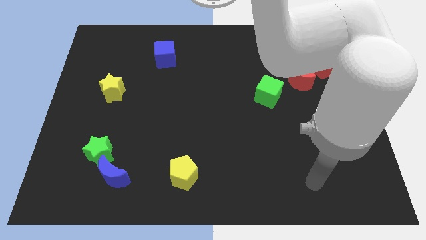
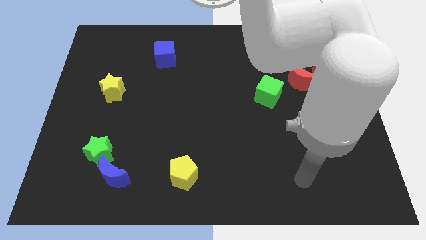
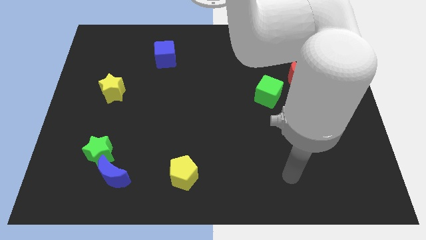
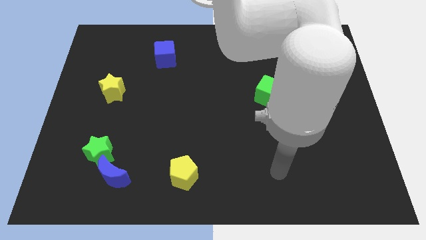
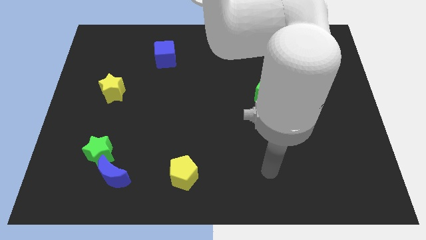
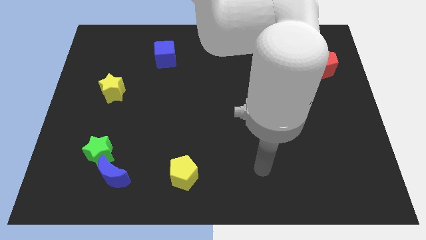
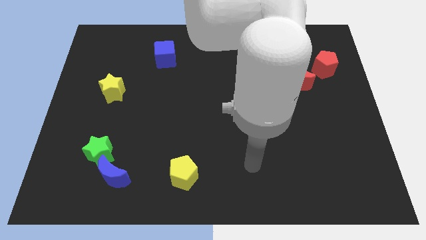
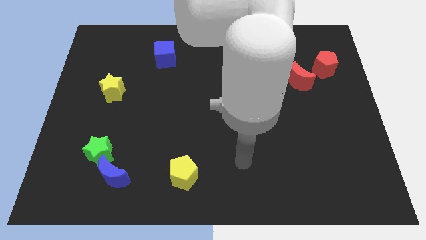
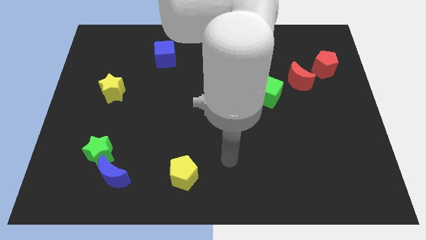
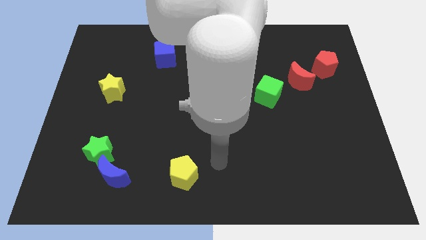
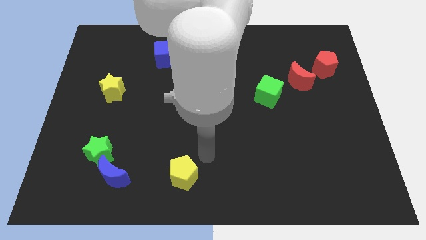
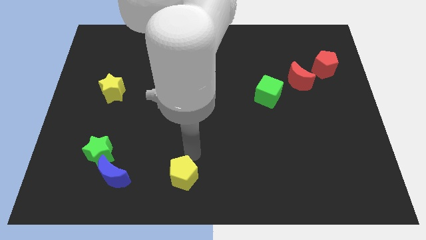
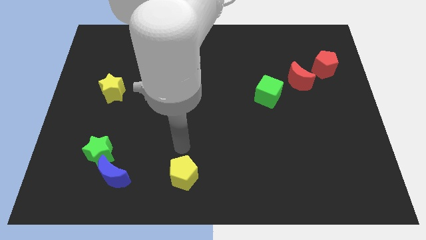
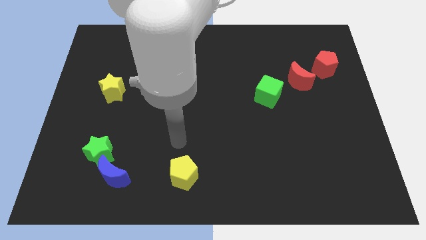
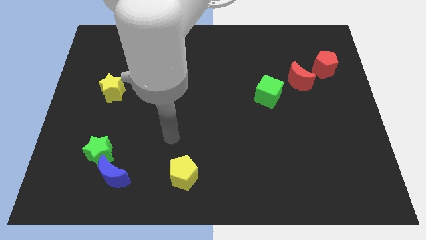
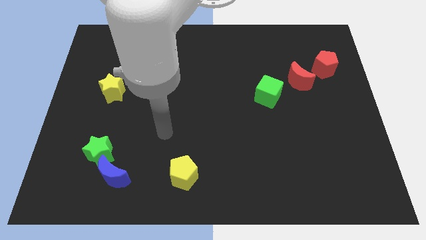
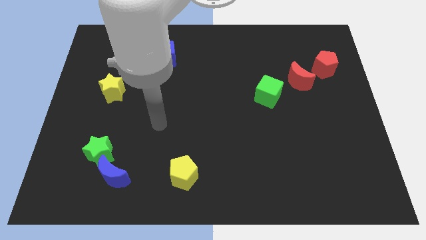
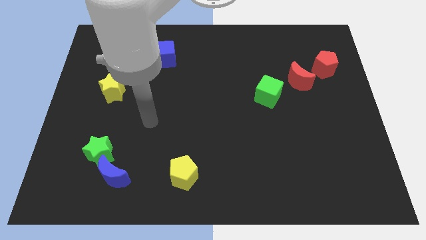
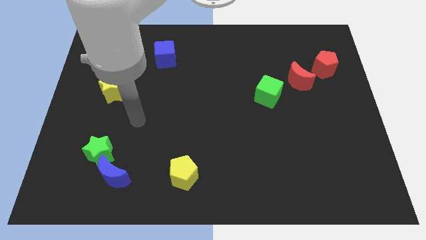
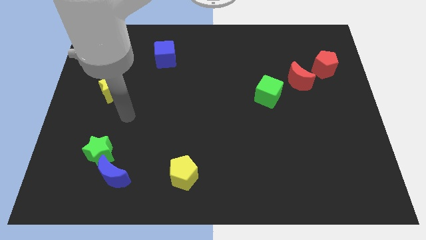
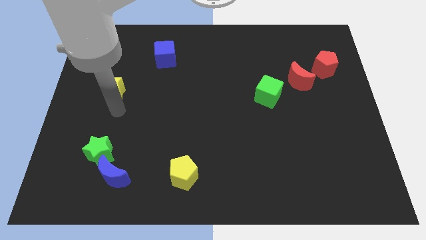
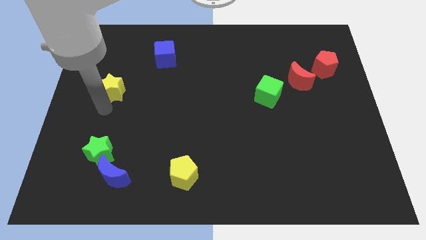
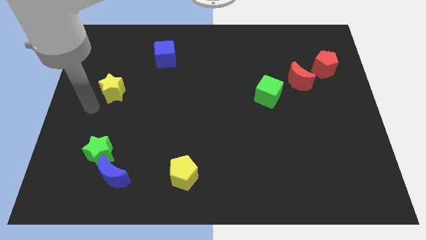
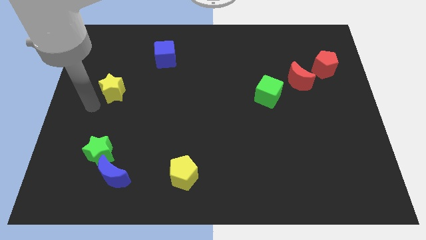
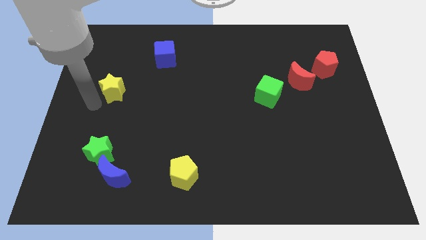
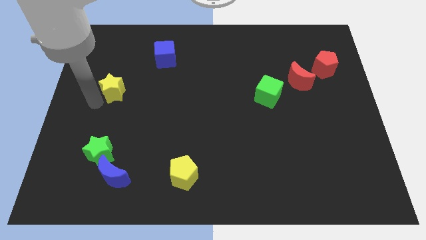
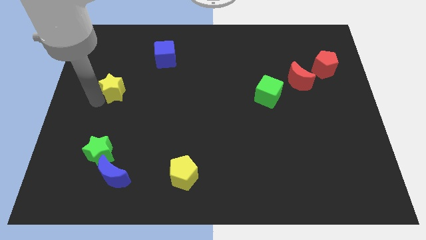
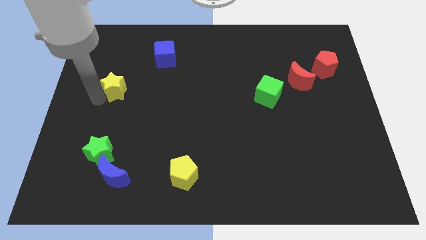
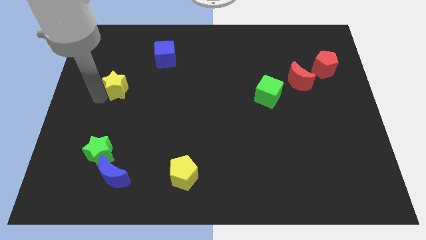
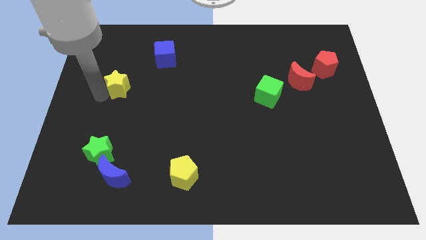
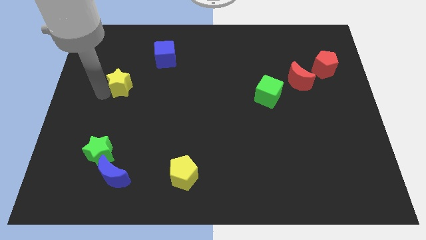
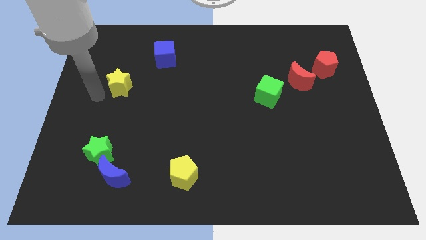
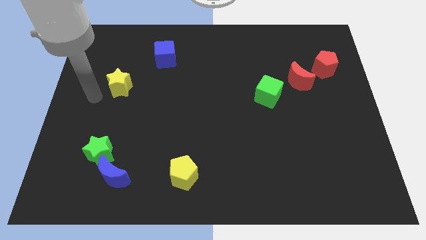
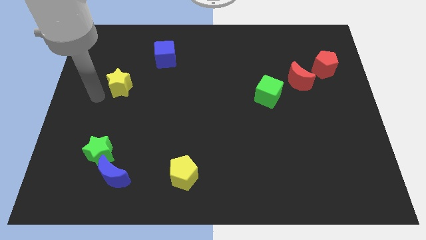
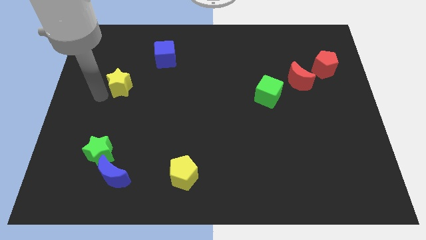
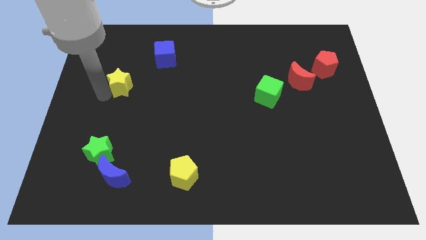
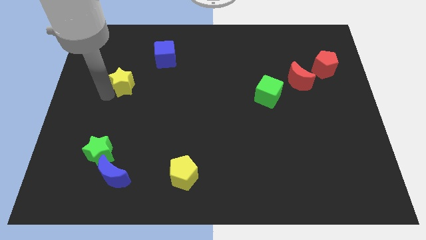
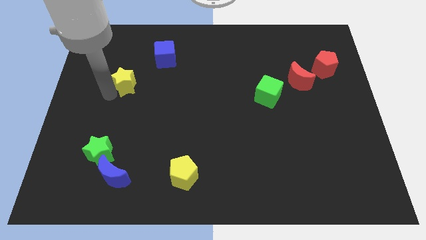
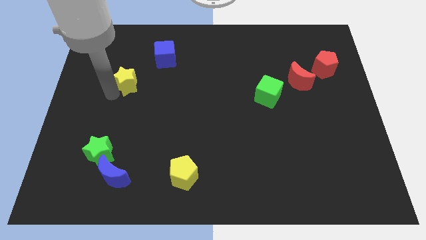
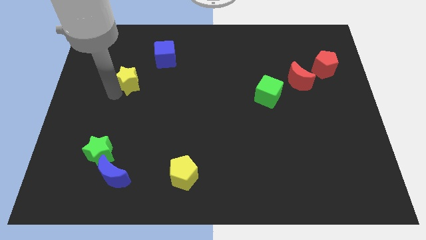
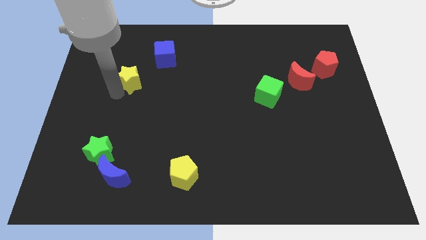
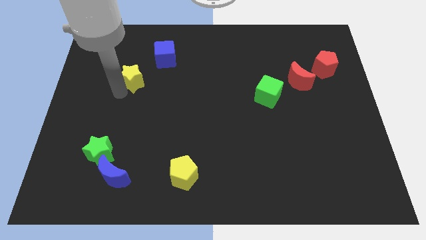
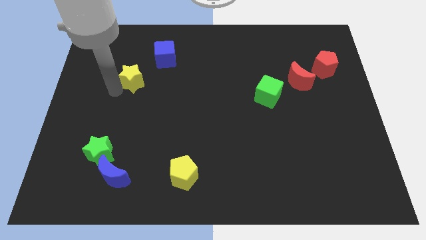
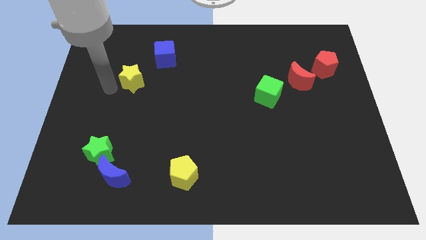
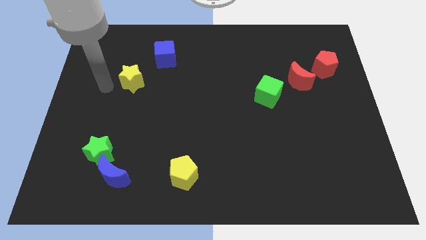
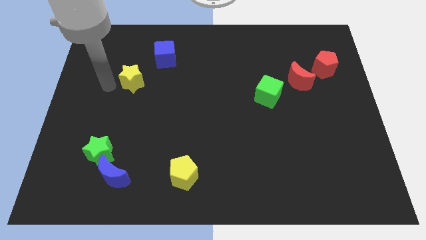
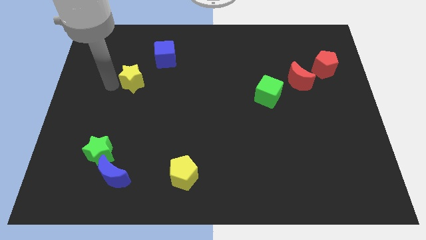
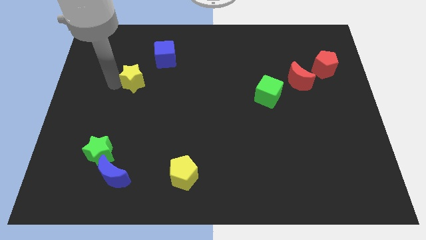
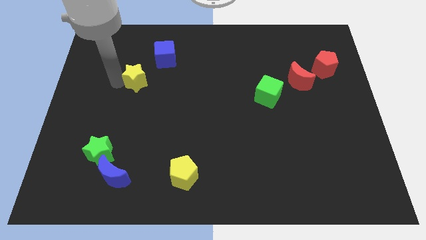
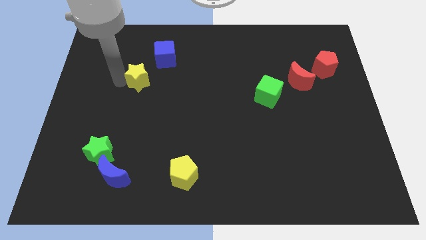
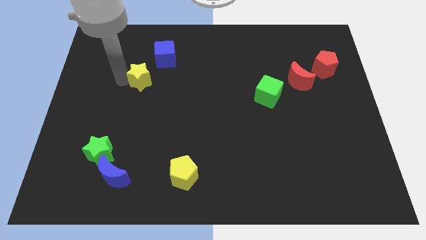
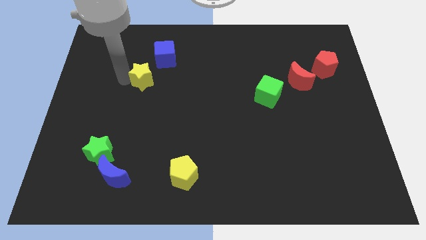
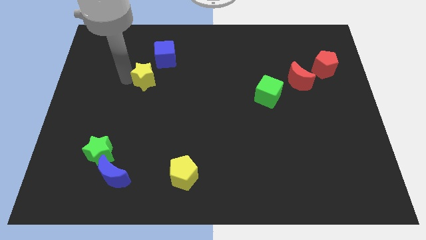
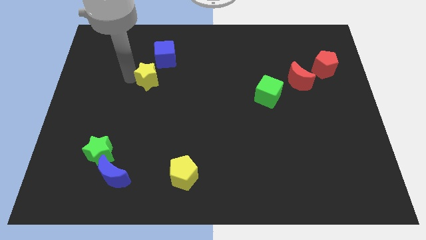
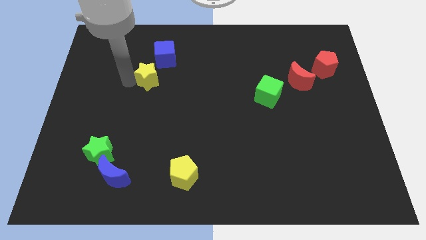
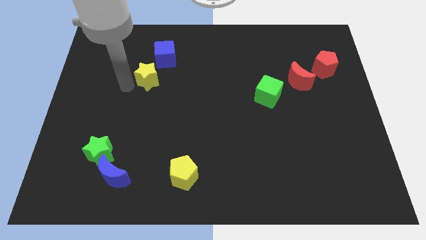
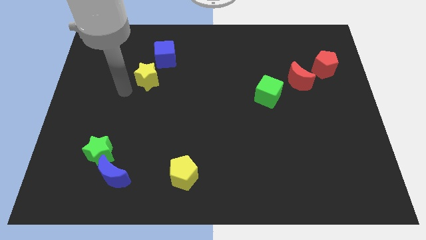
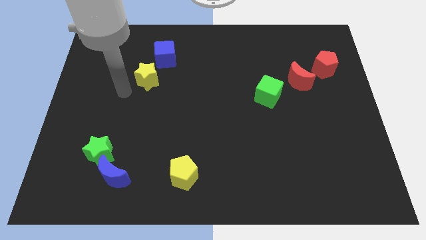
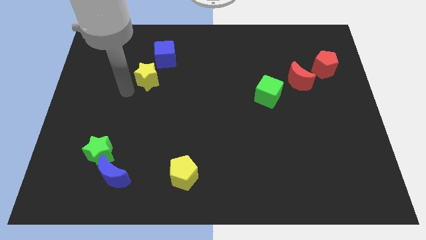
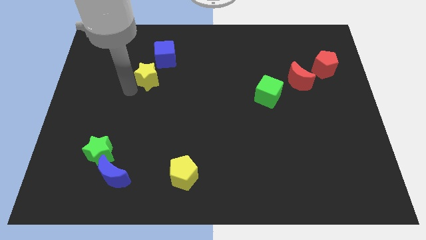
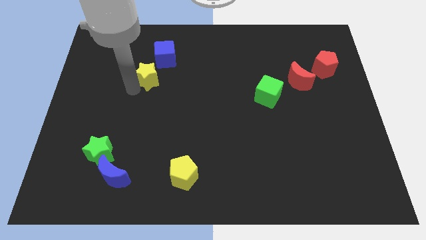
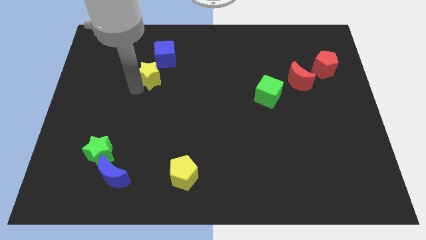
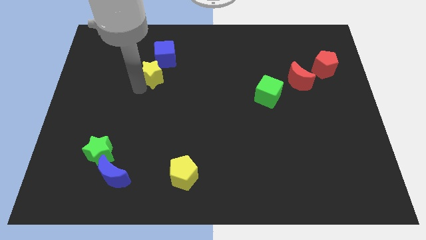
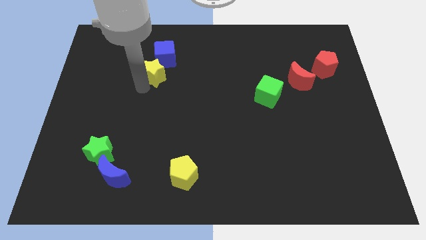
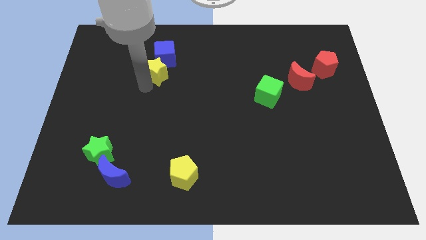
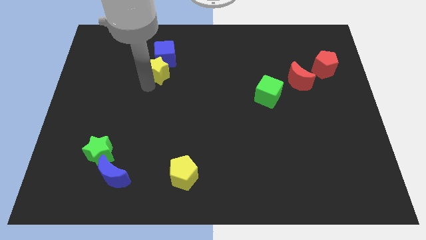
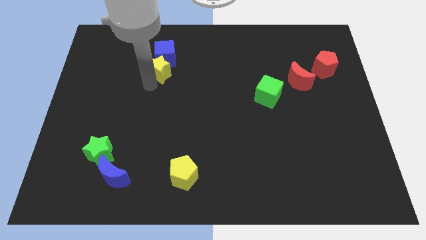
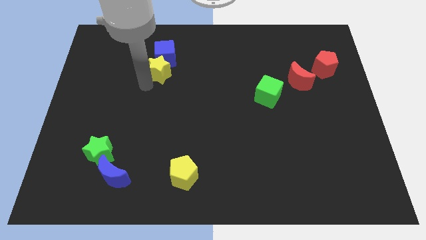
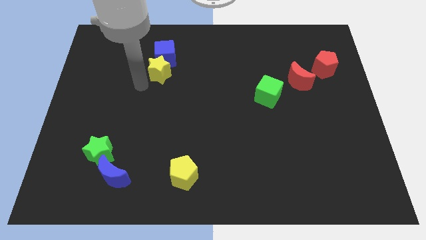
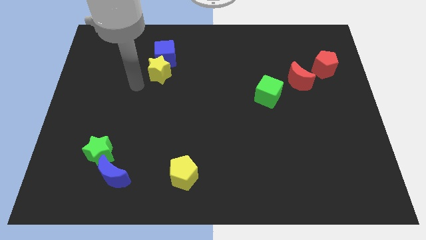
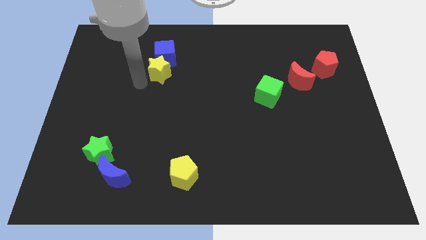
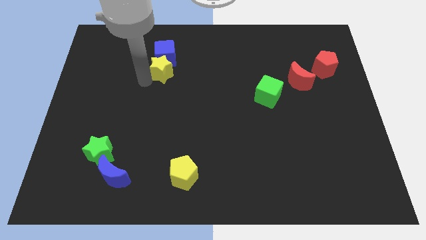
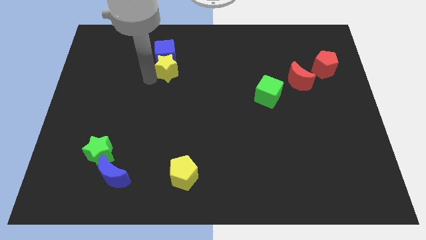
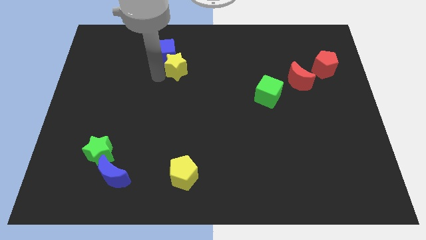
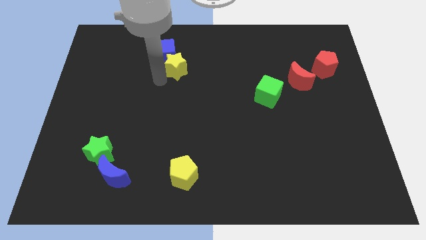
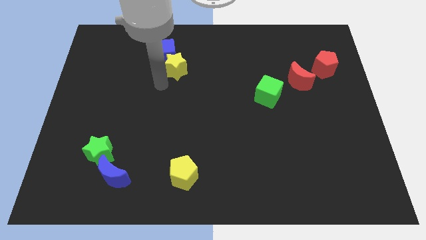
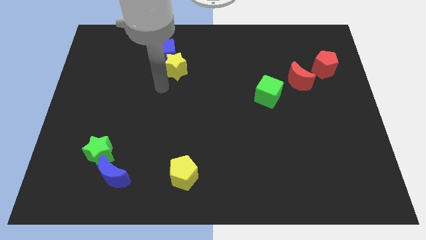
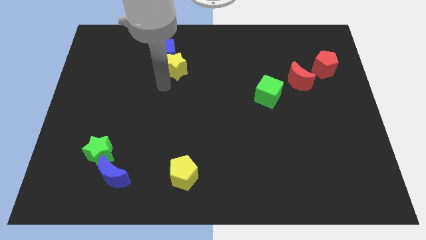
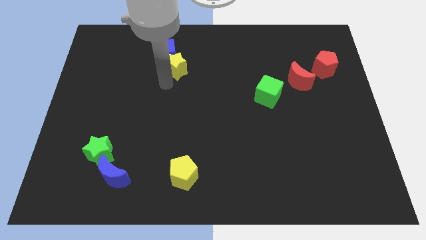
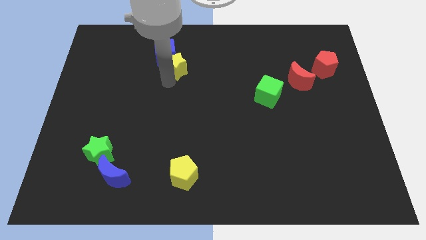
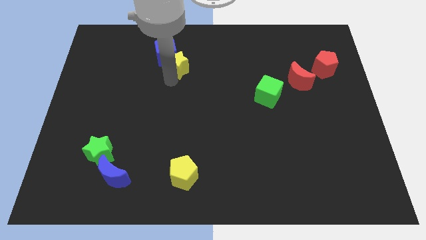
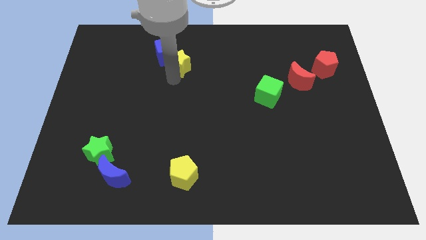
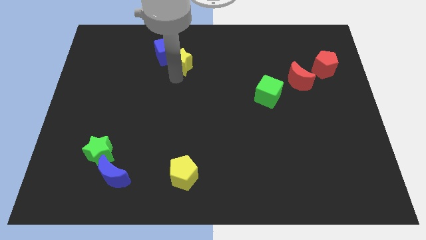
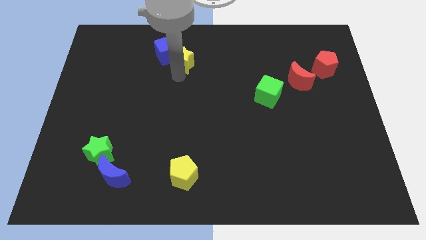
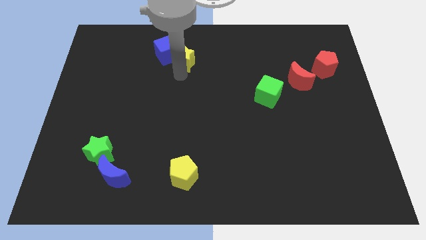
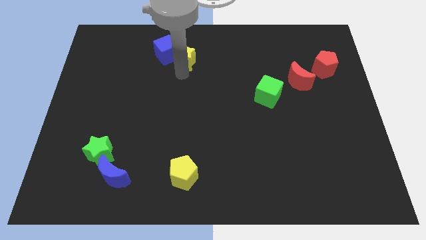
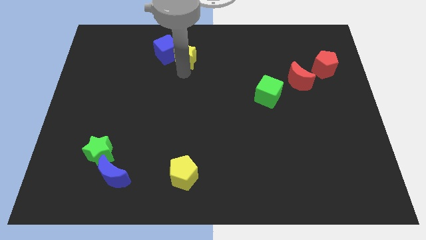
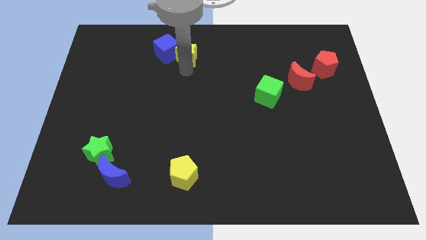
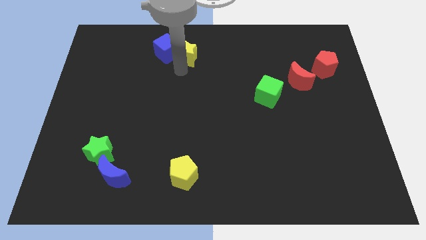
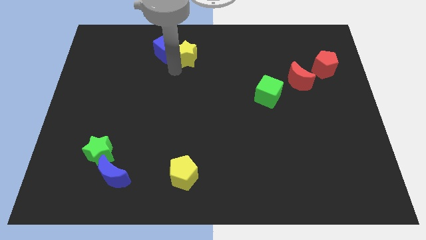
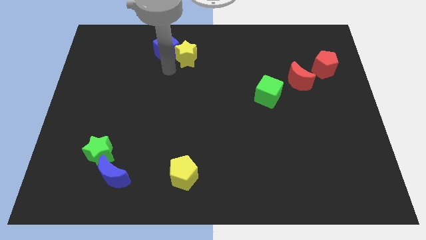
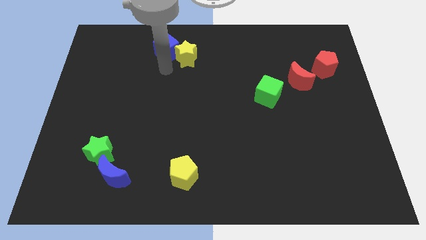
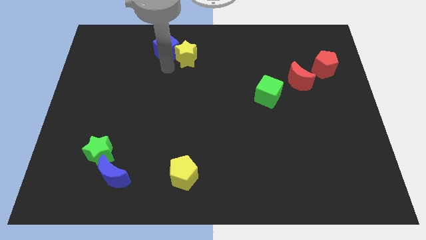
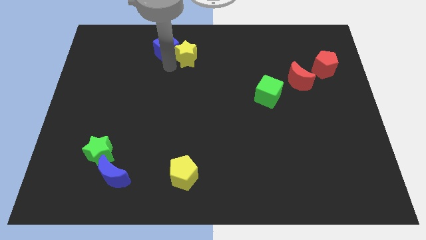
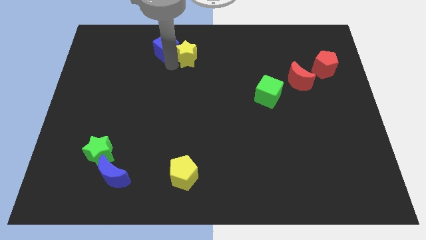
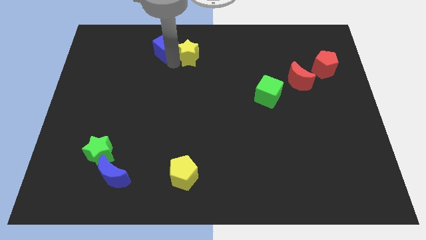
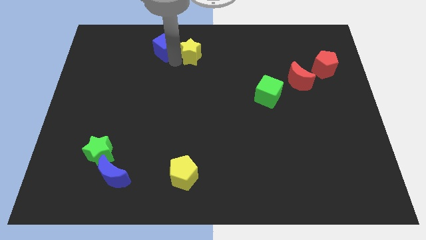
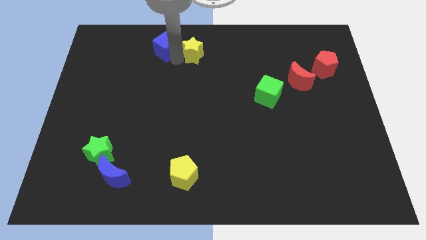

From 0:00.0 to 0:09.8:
put the yellow star to the towards your base
